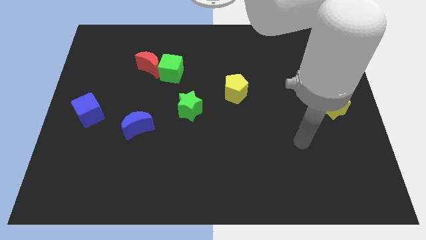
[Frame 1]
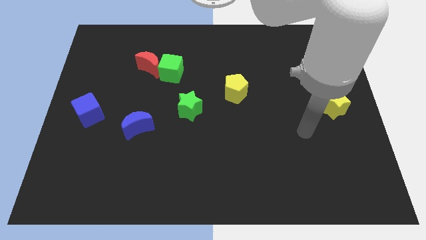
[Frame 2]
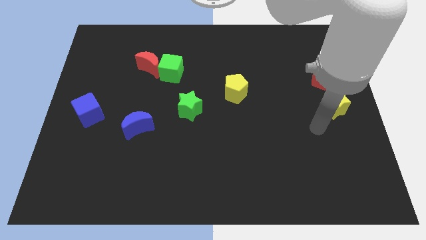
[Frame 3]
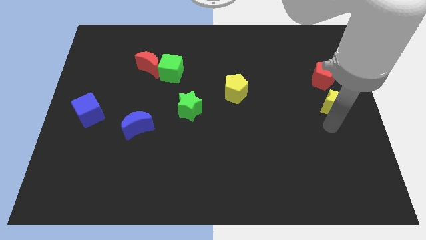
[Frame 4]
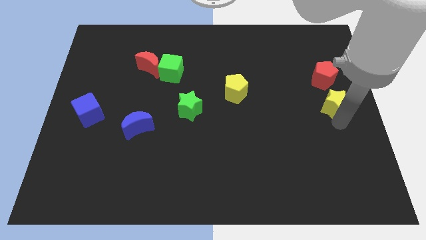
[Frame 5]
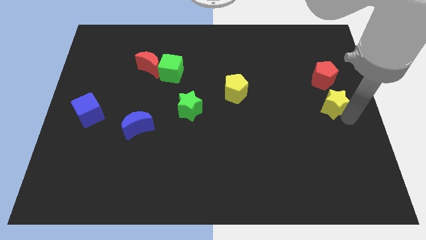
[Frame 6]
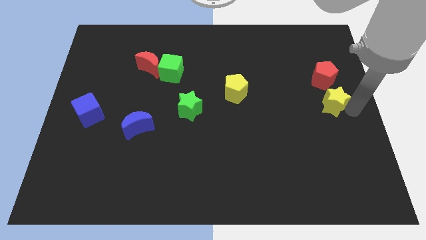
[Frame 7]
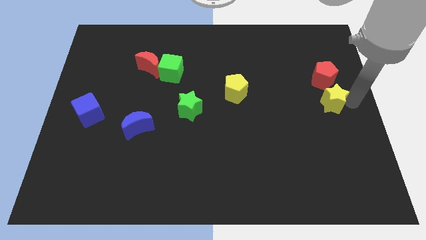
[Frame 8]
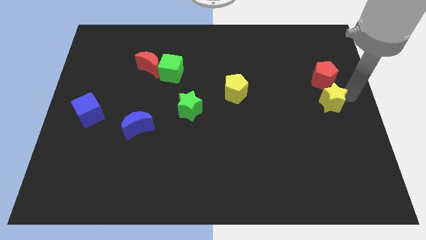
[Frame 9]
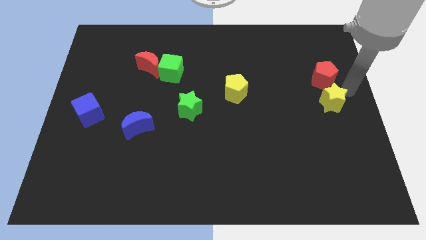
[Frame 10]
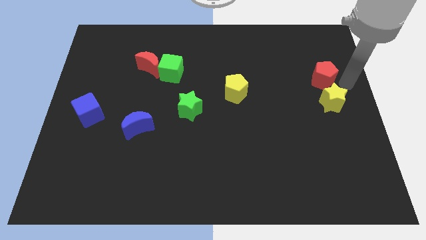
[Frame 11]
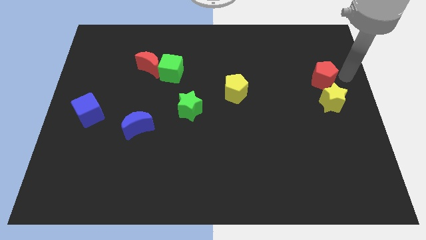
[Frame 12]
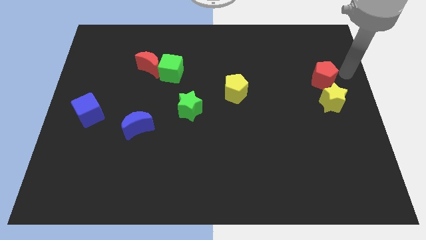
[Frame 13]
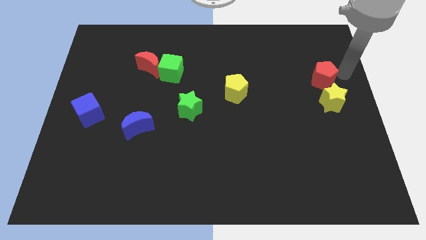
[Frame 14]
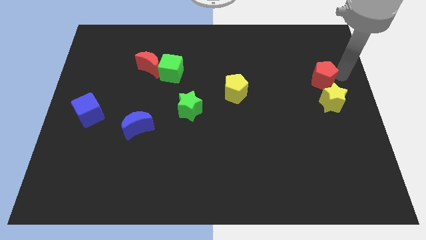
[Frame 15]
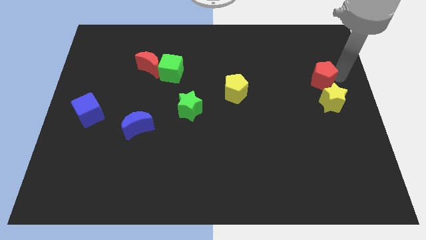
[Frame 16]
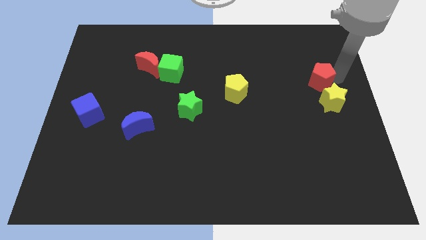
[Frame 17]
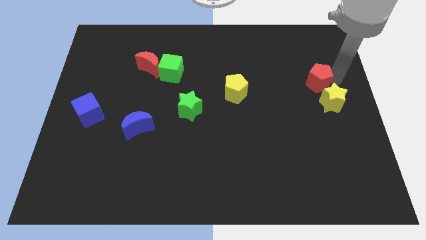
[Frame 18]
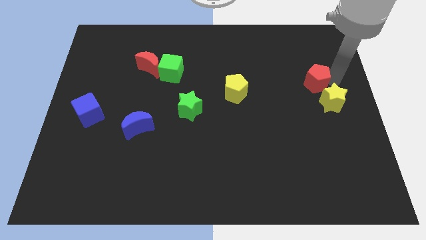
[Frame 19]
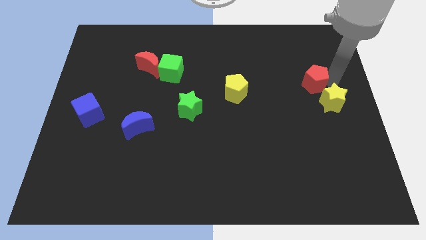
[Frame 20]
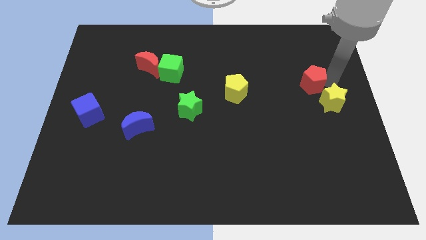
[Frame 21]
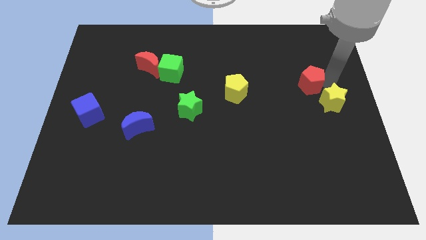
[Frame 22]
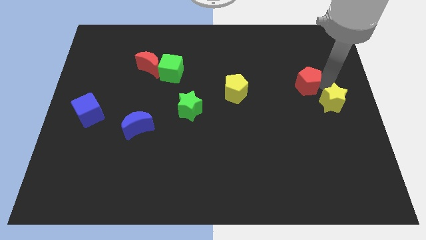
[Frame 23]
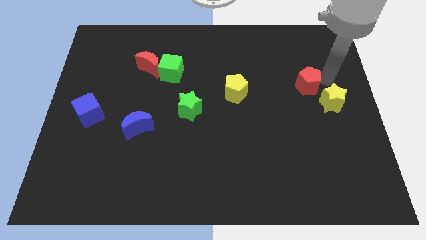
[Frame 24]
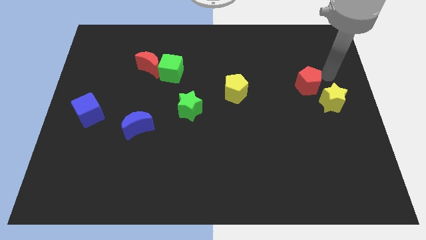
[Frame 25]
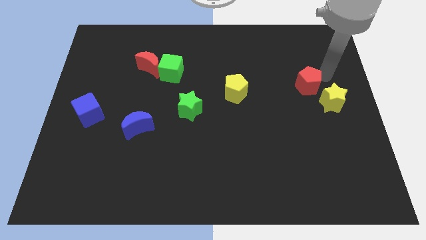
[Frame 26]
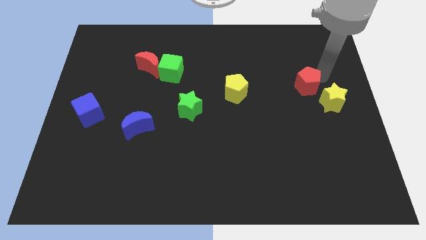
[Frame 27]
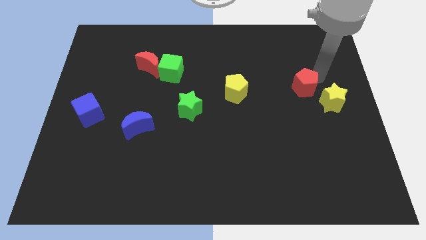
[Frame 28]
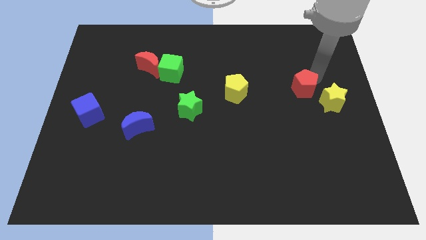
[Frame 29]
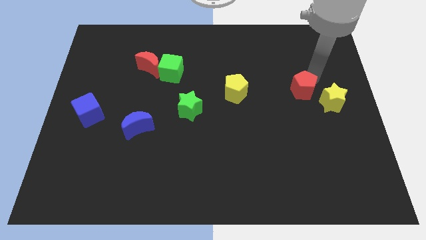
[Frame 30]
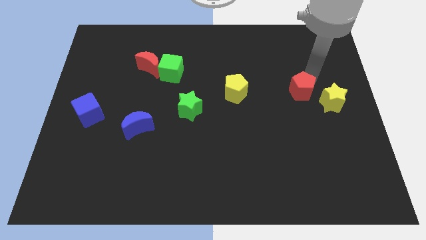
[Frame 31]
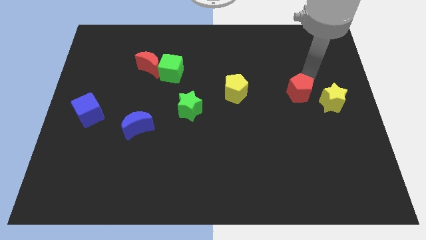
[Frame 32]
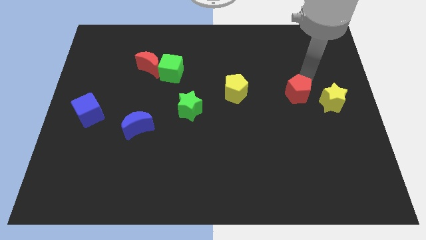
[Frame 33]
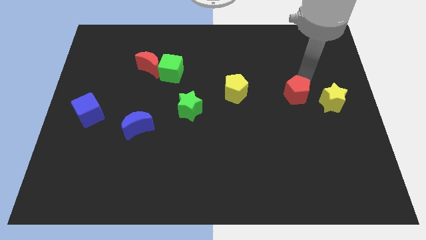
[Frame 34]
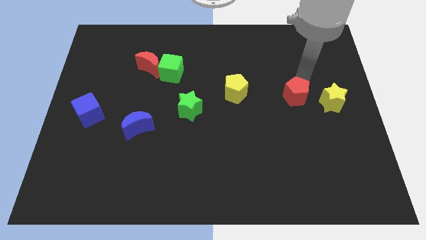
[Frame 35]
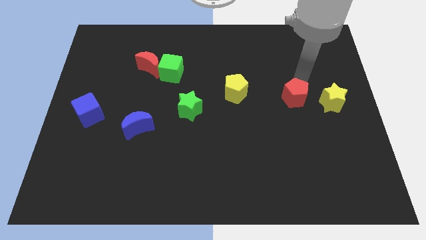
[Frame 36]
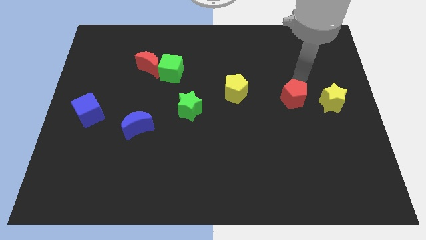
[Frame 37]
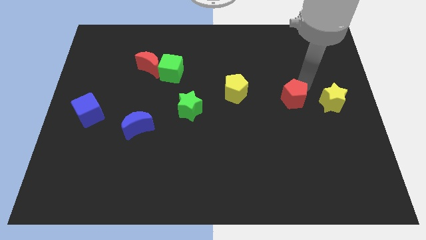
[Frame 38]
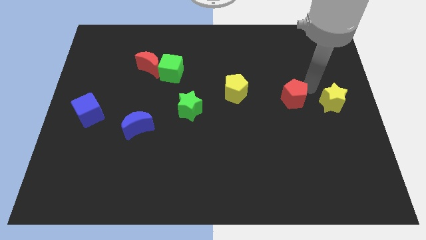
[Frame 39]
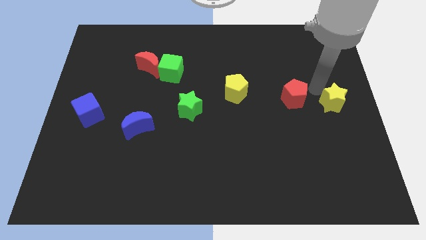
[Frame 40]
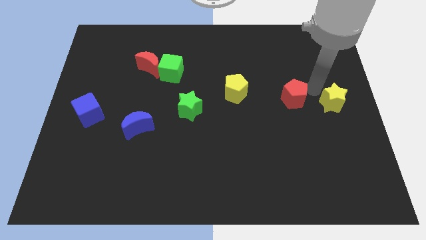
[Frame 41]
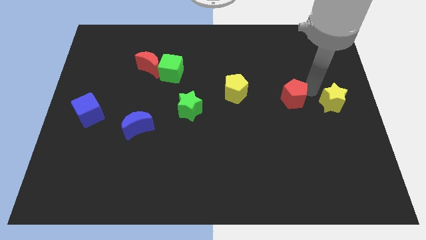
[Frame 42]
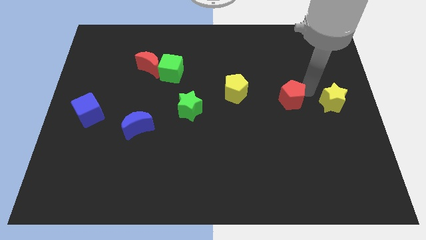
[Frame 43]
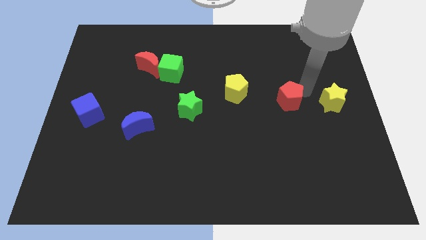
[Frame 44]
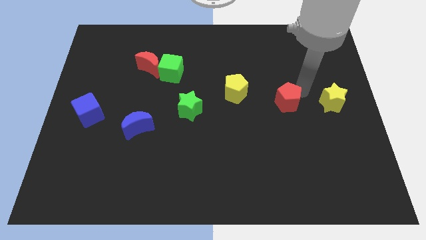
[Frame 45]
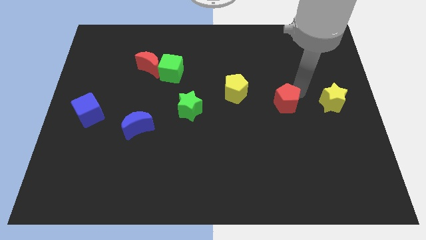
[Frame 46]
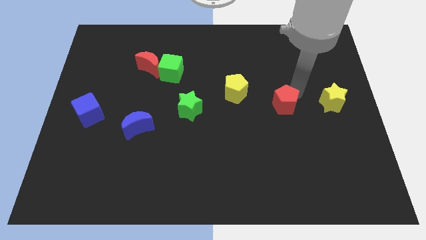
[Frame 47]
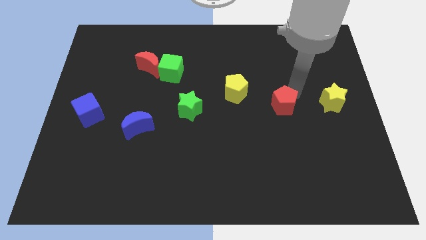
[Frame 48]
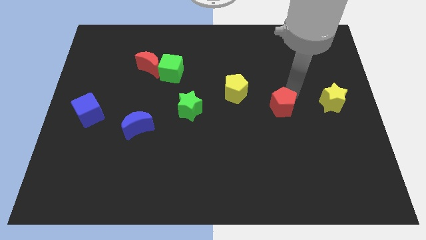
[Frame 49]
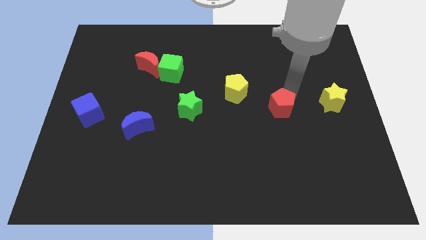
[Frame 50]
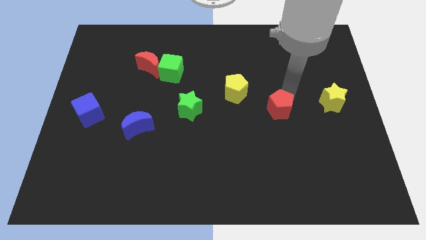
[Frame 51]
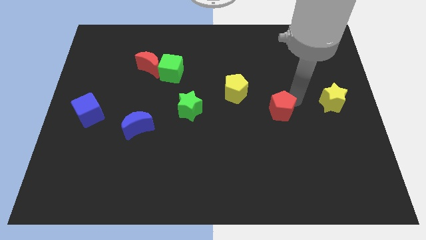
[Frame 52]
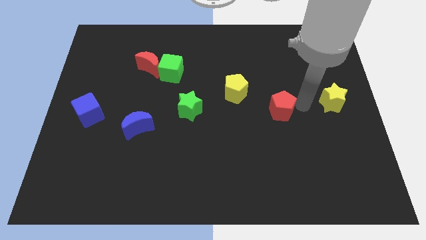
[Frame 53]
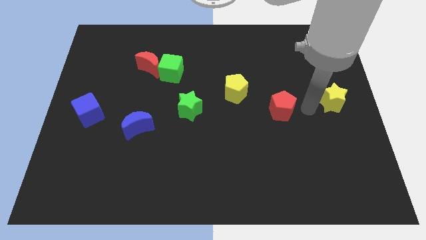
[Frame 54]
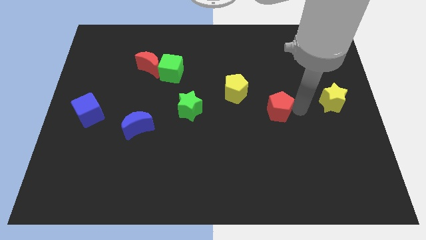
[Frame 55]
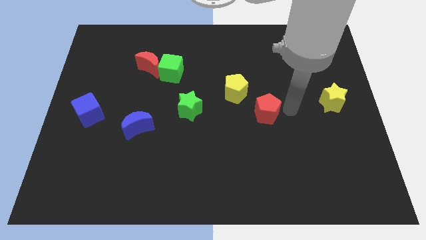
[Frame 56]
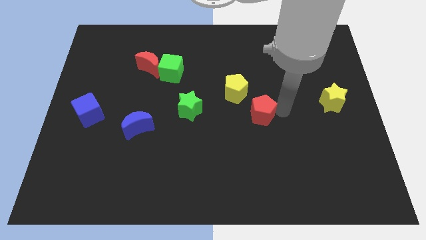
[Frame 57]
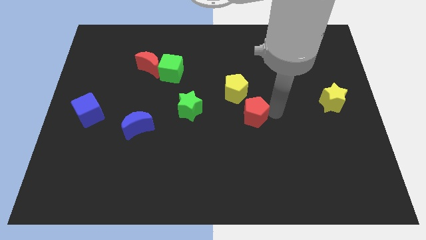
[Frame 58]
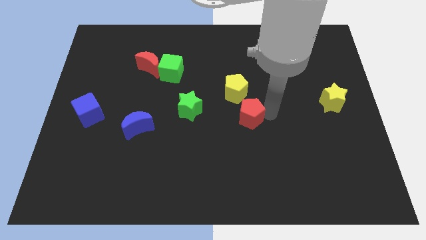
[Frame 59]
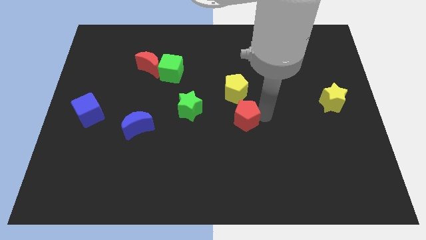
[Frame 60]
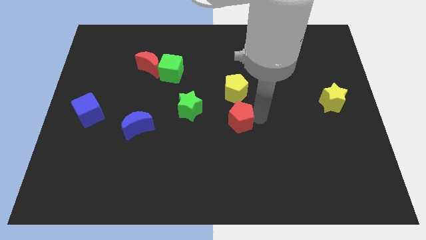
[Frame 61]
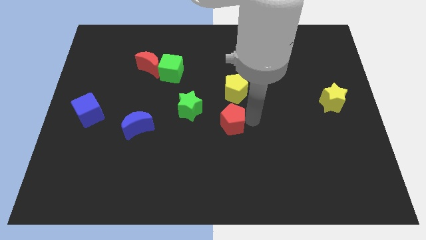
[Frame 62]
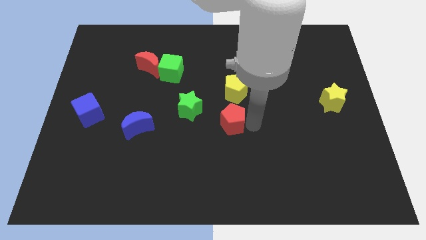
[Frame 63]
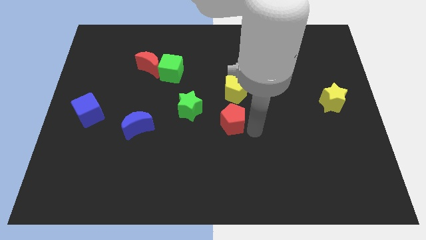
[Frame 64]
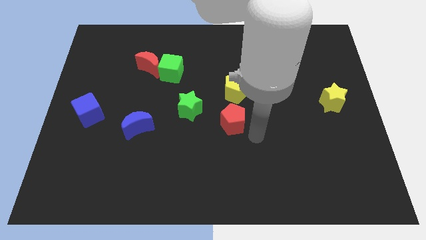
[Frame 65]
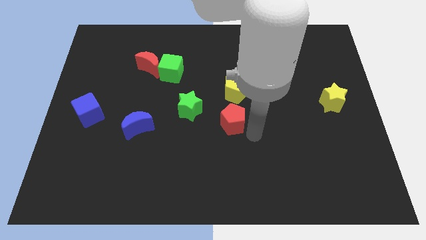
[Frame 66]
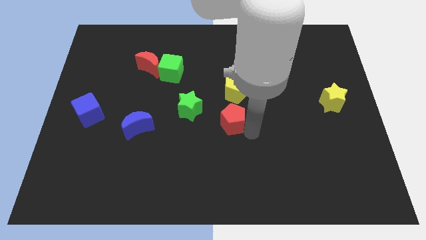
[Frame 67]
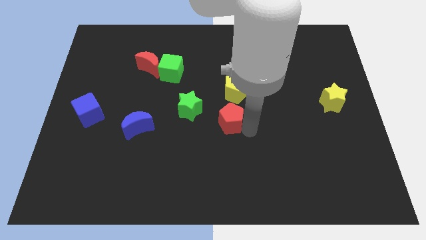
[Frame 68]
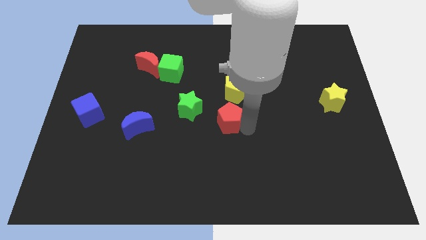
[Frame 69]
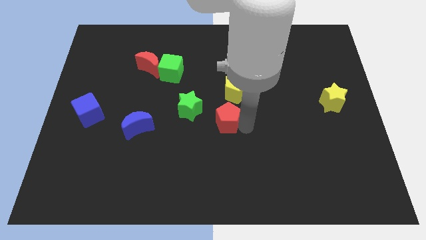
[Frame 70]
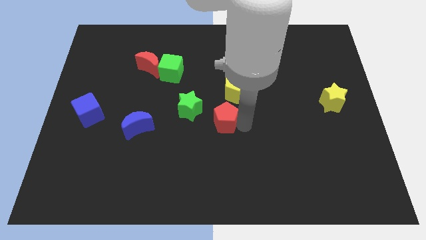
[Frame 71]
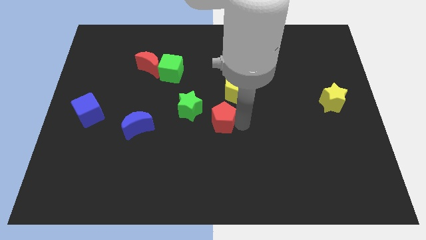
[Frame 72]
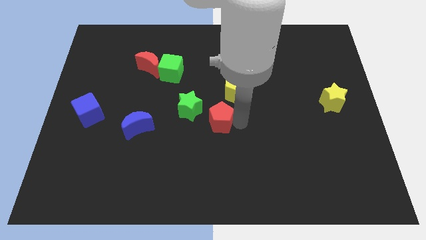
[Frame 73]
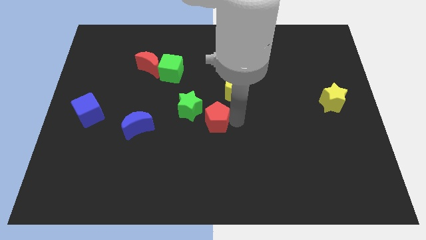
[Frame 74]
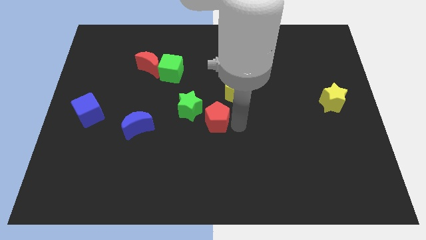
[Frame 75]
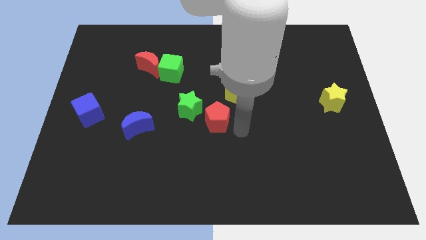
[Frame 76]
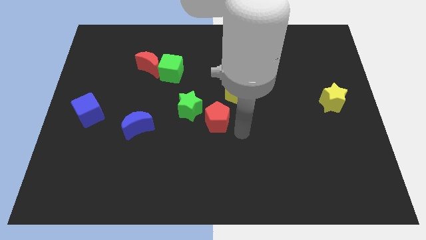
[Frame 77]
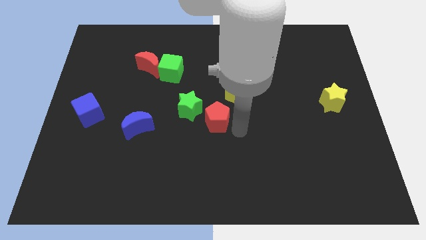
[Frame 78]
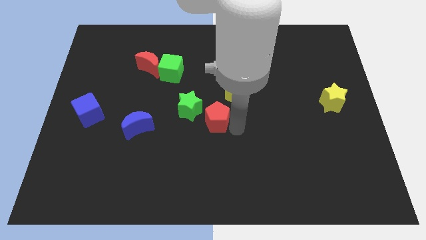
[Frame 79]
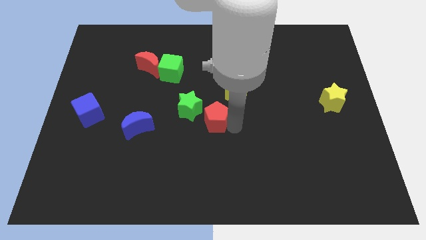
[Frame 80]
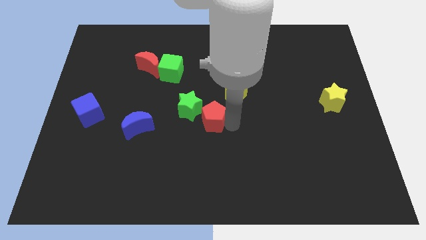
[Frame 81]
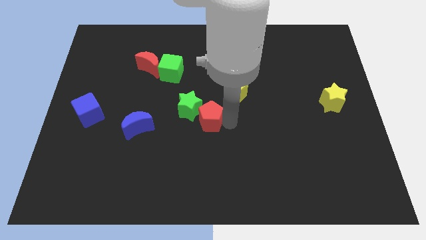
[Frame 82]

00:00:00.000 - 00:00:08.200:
push the red pentagon to the green star
